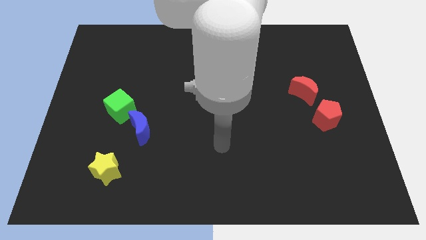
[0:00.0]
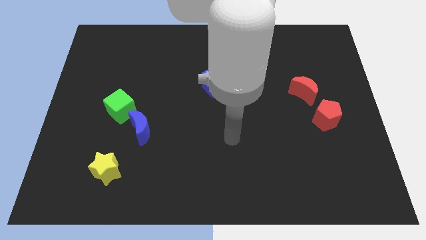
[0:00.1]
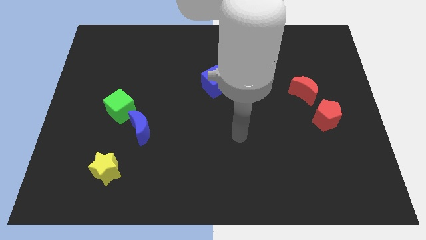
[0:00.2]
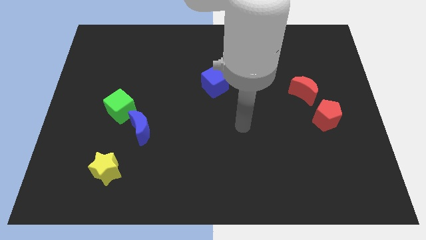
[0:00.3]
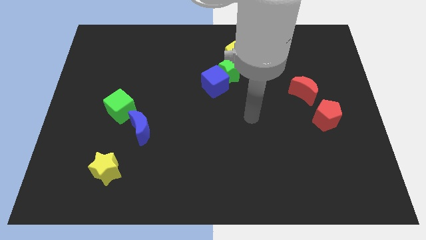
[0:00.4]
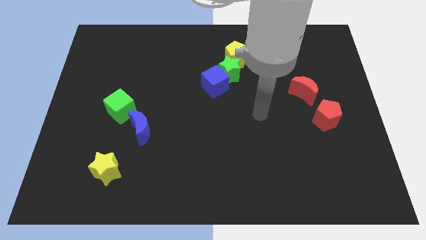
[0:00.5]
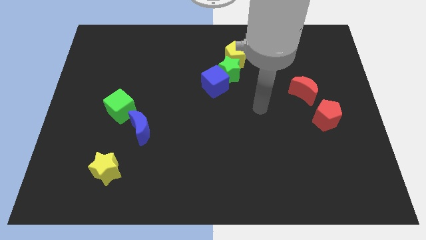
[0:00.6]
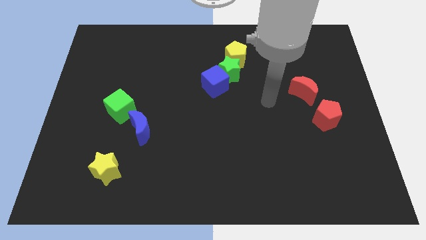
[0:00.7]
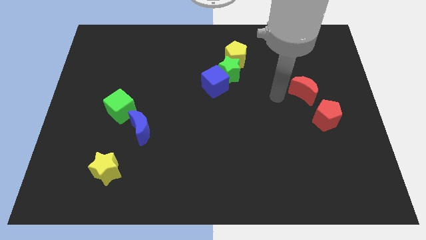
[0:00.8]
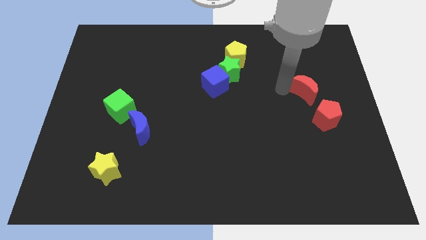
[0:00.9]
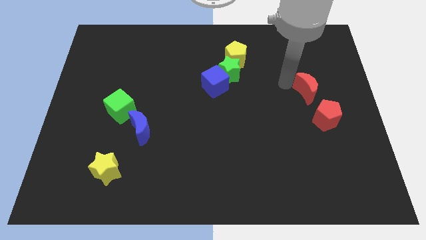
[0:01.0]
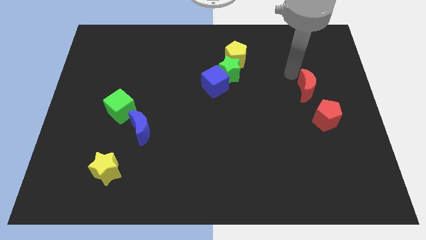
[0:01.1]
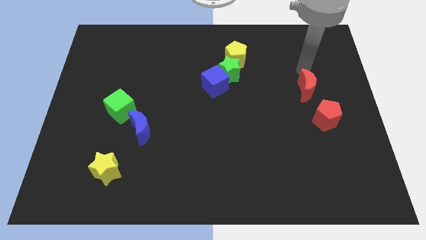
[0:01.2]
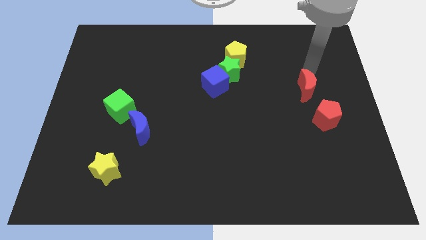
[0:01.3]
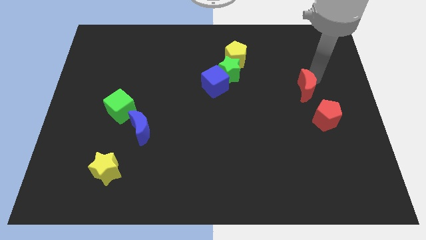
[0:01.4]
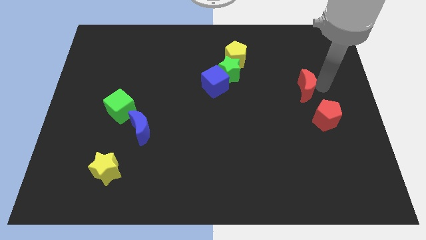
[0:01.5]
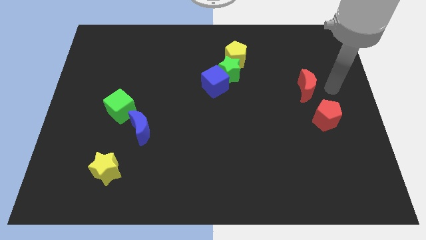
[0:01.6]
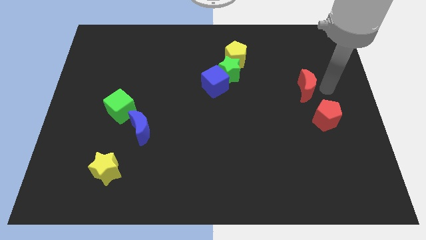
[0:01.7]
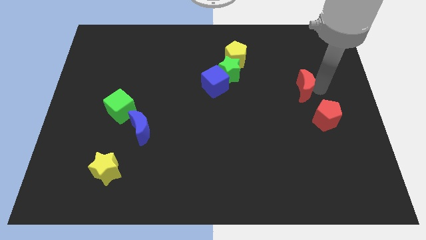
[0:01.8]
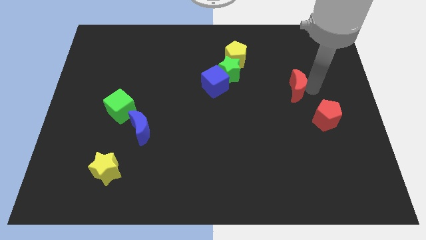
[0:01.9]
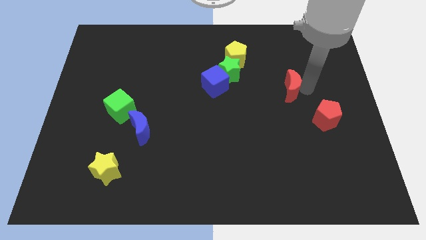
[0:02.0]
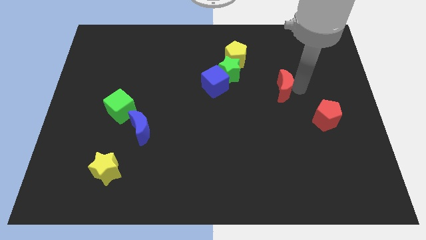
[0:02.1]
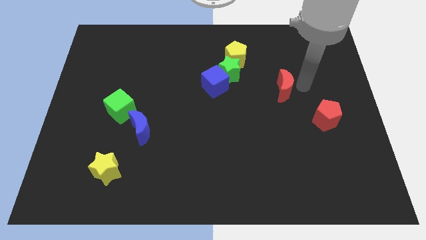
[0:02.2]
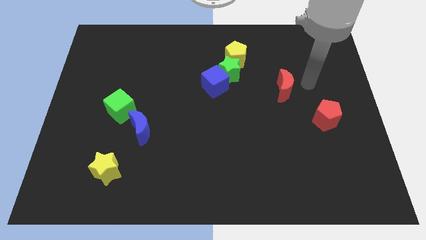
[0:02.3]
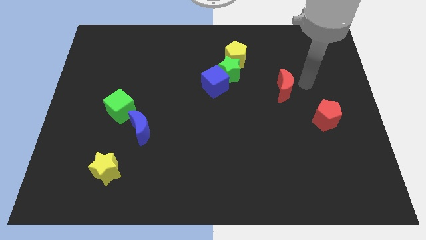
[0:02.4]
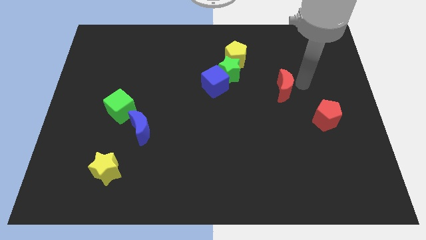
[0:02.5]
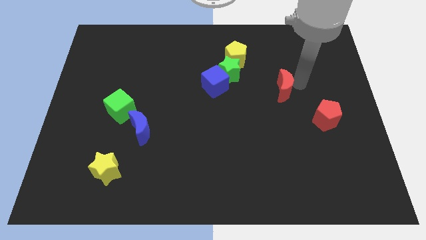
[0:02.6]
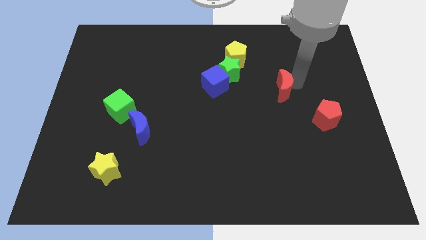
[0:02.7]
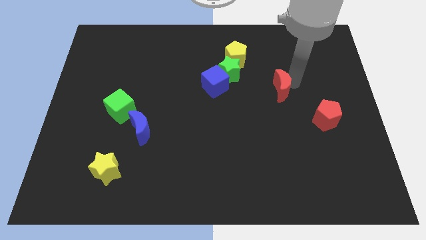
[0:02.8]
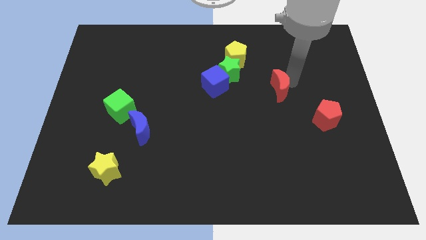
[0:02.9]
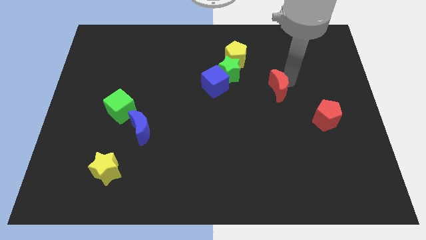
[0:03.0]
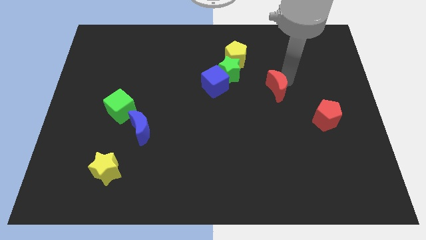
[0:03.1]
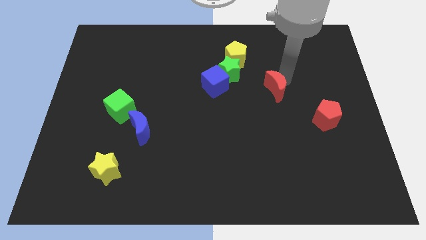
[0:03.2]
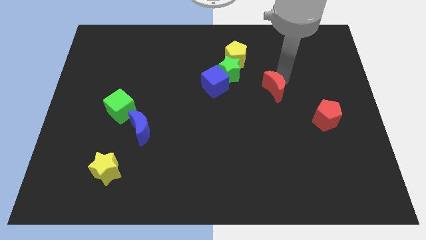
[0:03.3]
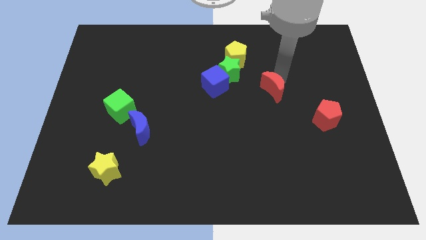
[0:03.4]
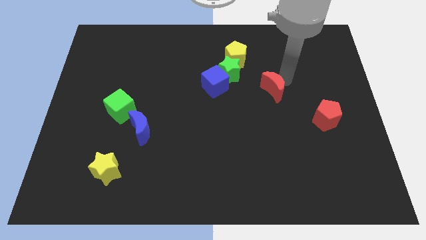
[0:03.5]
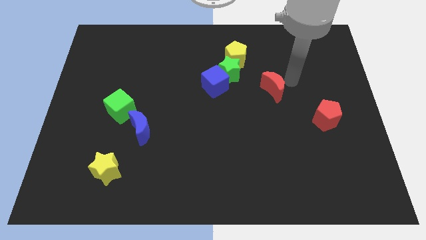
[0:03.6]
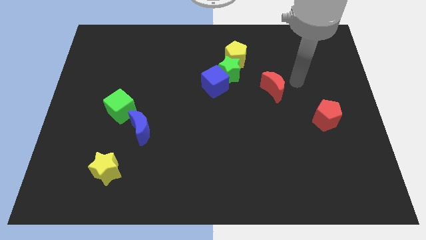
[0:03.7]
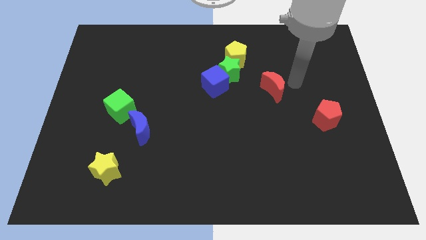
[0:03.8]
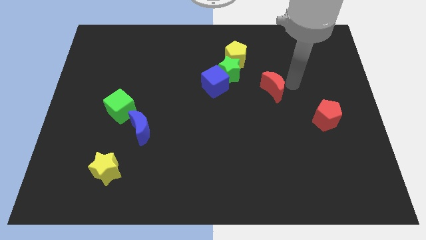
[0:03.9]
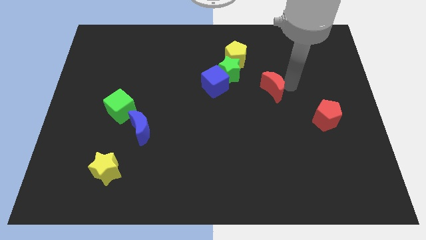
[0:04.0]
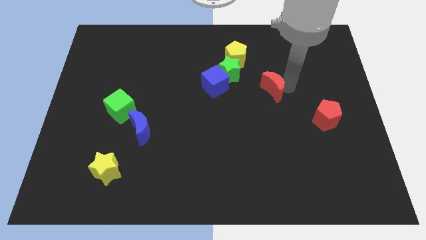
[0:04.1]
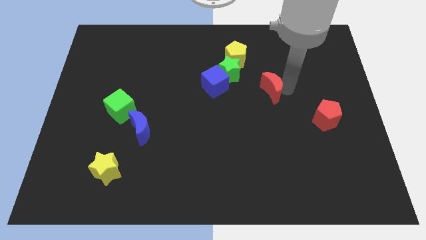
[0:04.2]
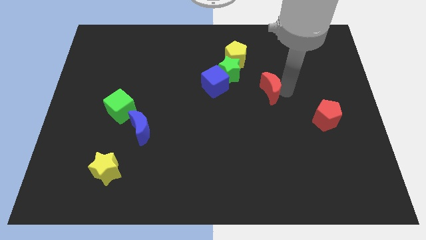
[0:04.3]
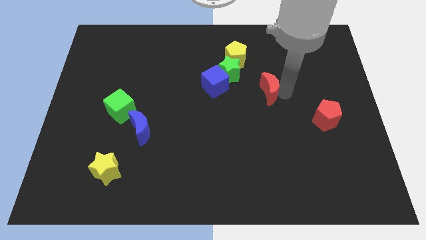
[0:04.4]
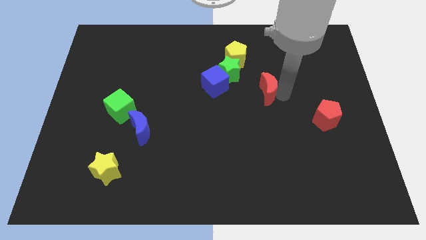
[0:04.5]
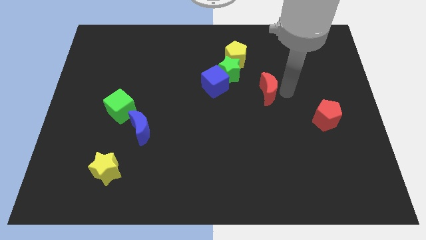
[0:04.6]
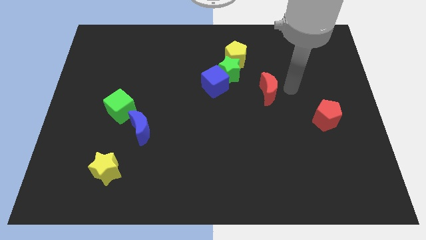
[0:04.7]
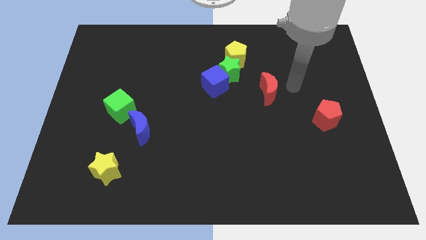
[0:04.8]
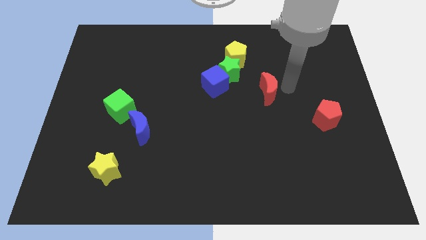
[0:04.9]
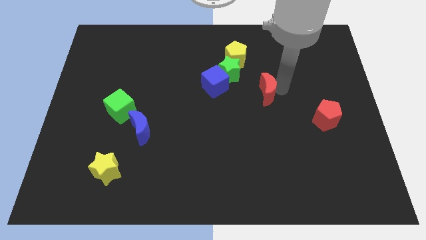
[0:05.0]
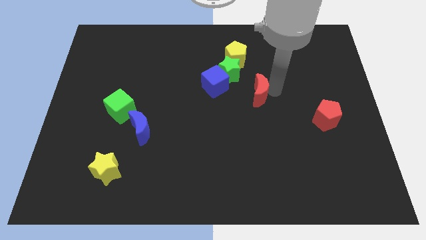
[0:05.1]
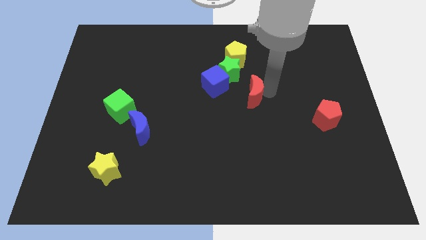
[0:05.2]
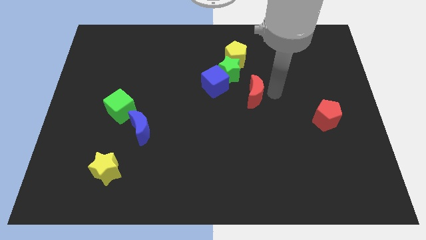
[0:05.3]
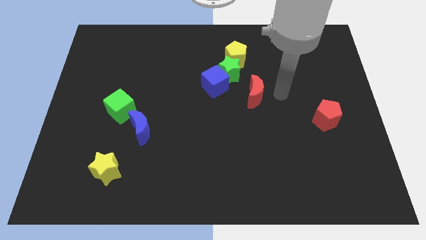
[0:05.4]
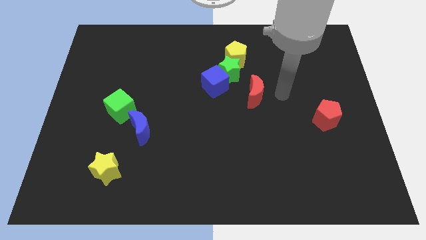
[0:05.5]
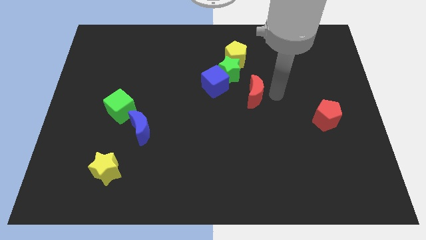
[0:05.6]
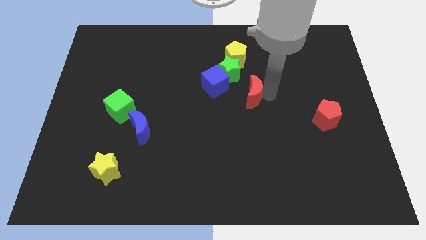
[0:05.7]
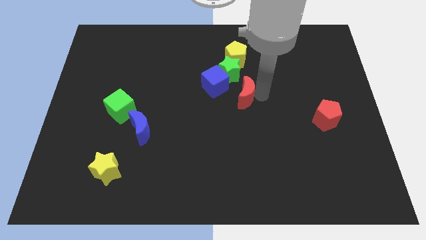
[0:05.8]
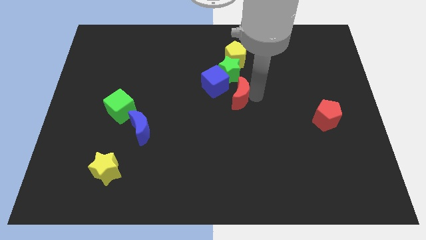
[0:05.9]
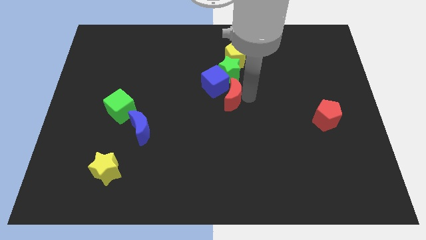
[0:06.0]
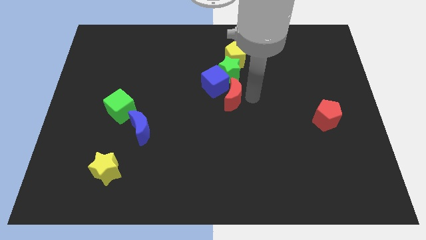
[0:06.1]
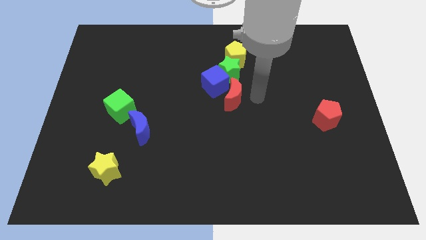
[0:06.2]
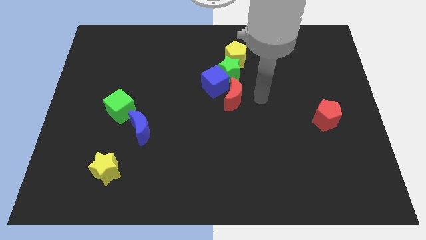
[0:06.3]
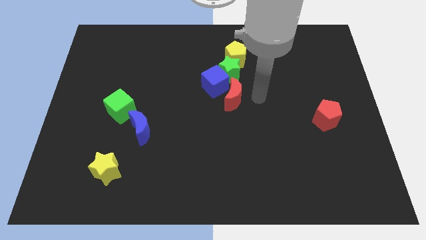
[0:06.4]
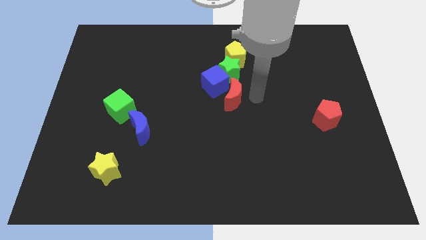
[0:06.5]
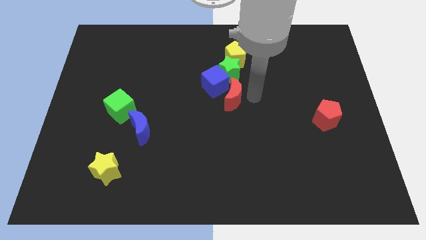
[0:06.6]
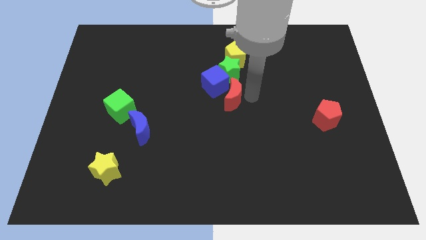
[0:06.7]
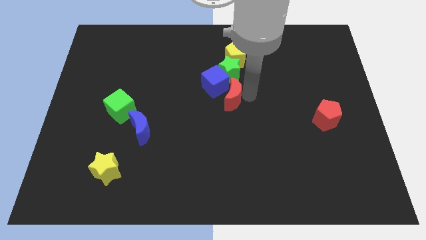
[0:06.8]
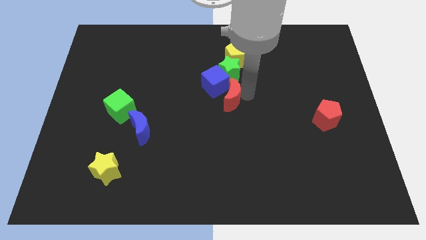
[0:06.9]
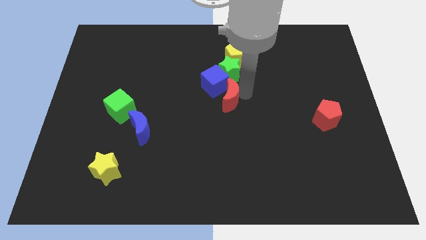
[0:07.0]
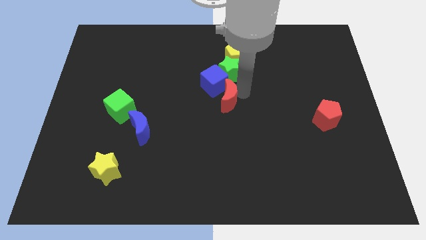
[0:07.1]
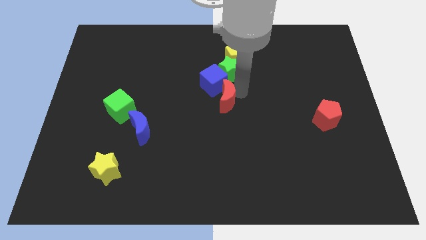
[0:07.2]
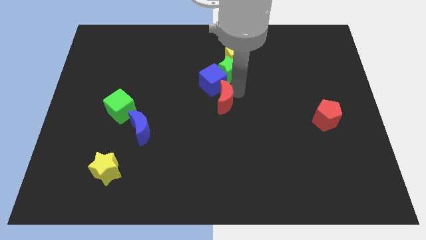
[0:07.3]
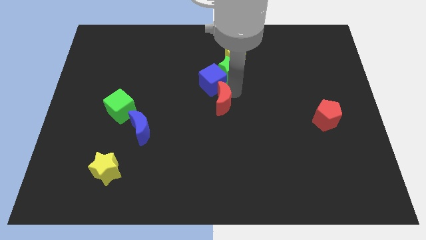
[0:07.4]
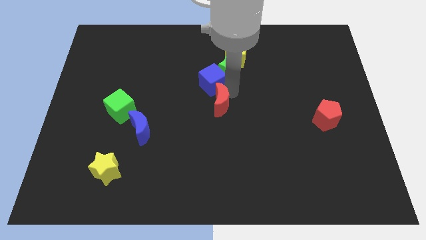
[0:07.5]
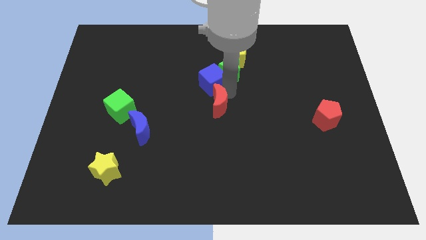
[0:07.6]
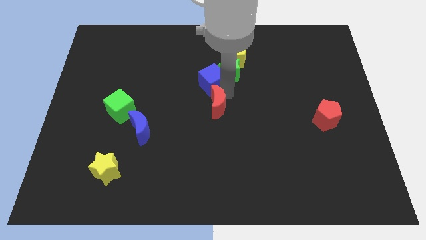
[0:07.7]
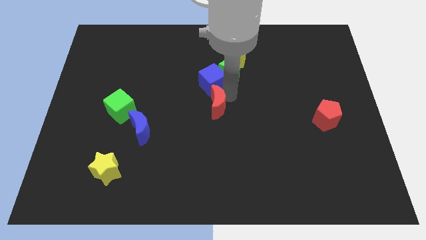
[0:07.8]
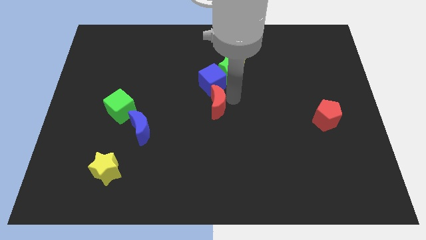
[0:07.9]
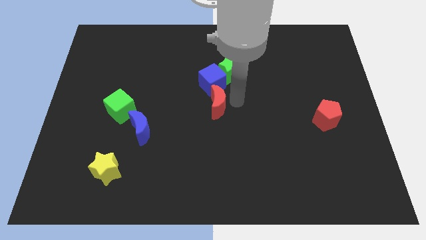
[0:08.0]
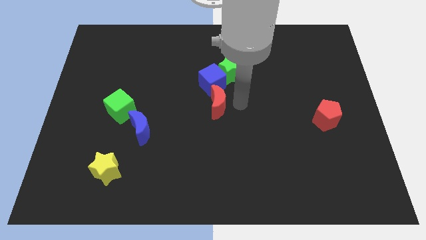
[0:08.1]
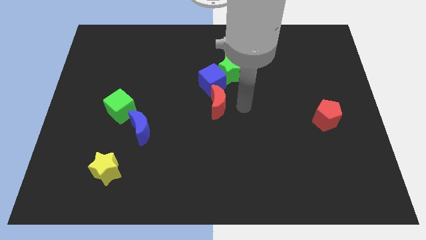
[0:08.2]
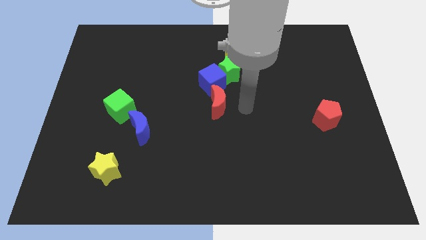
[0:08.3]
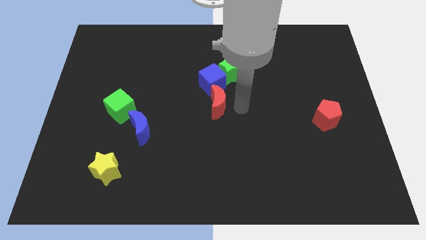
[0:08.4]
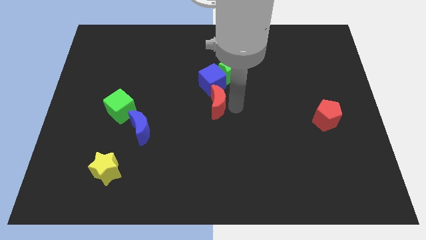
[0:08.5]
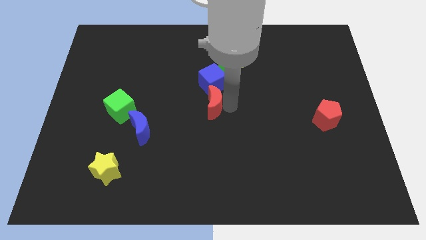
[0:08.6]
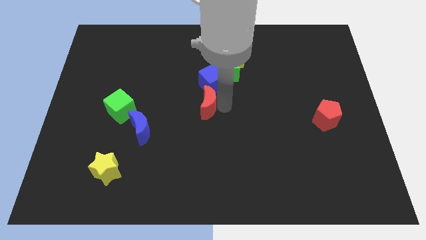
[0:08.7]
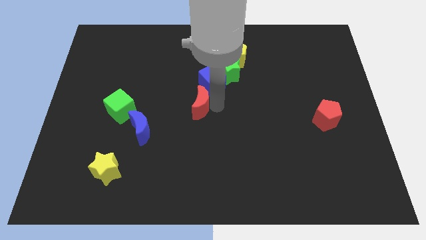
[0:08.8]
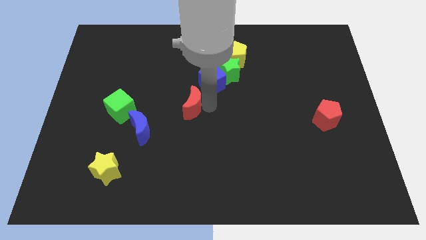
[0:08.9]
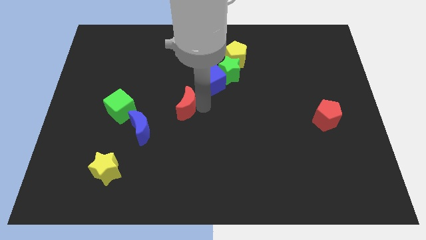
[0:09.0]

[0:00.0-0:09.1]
push the red moon to the right of the green cube
